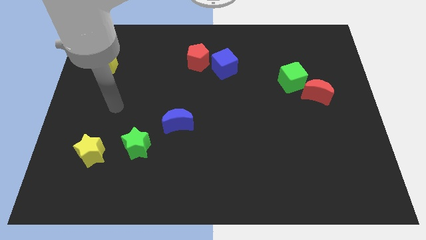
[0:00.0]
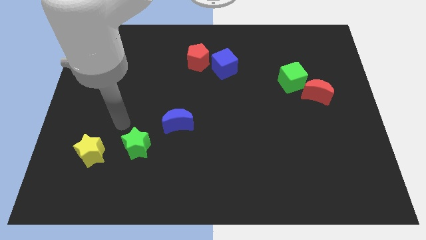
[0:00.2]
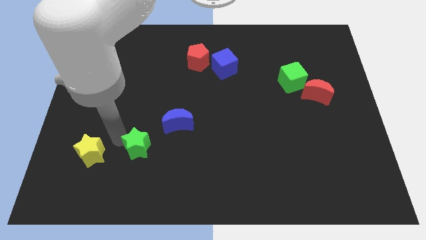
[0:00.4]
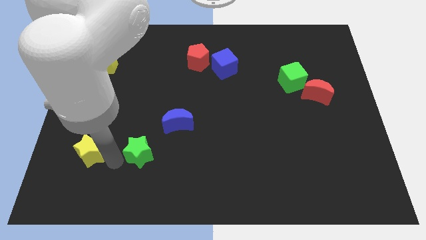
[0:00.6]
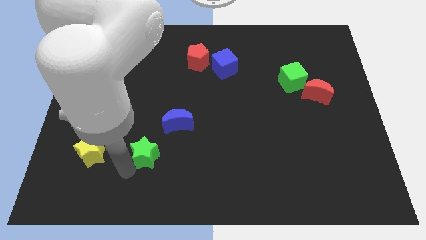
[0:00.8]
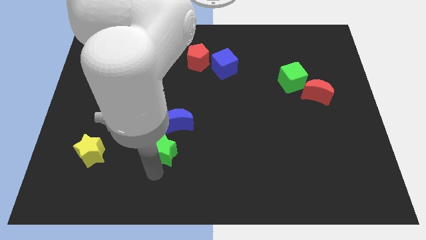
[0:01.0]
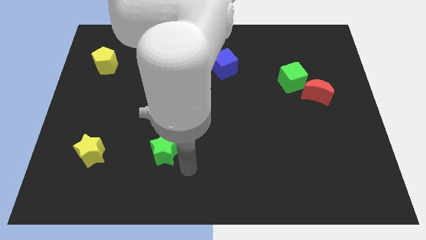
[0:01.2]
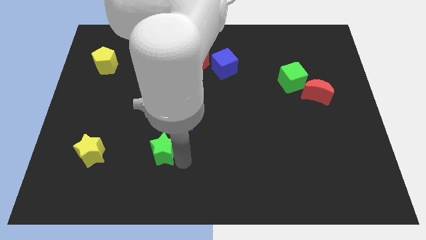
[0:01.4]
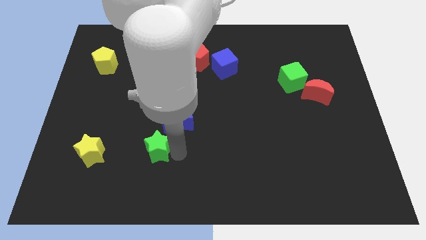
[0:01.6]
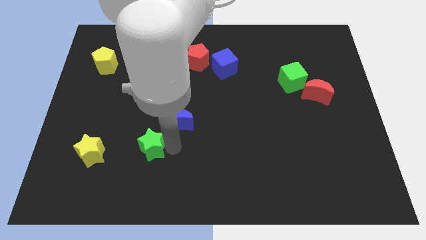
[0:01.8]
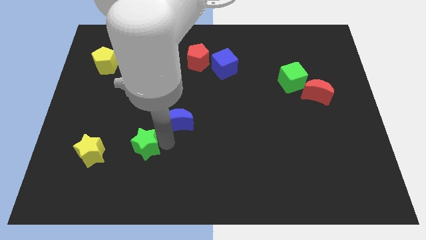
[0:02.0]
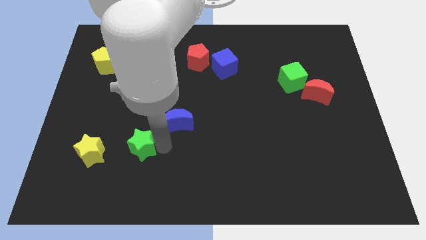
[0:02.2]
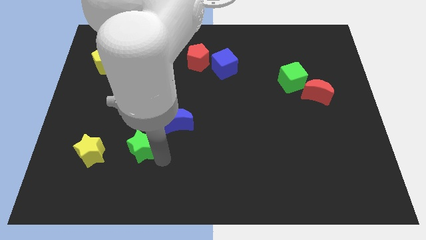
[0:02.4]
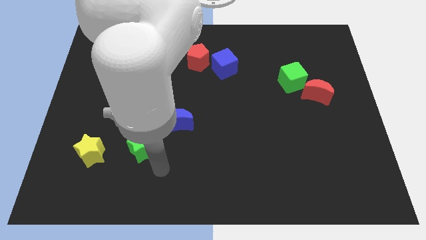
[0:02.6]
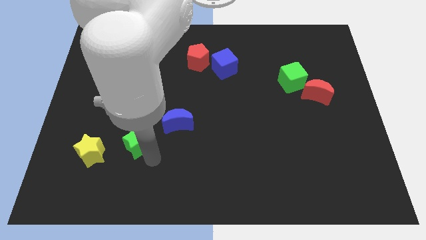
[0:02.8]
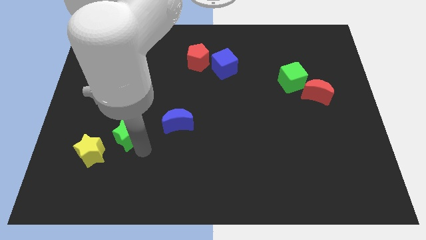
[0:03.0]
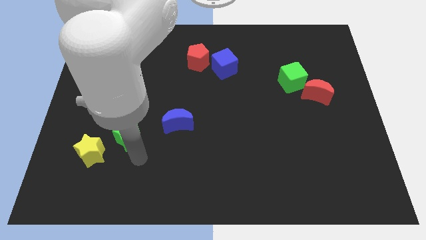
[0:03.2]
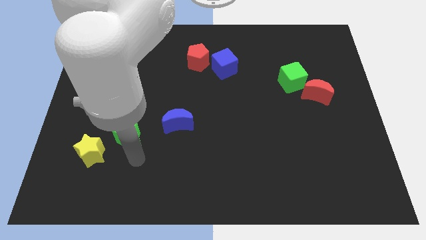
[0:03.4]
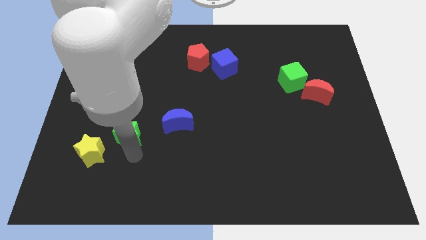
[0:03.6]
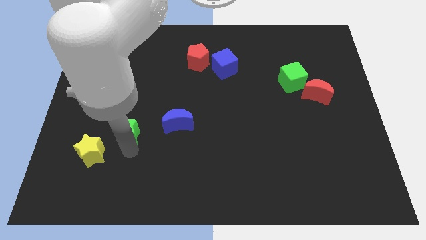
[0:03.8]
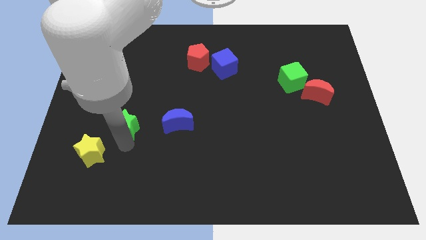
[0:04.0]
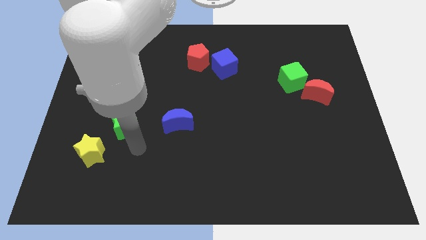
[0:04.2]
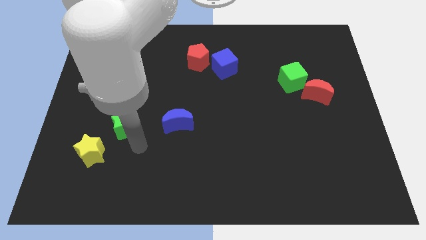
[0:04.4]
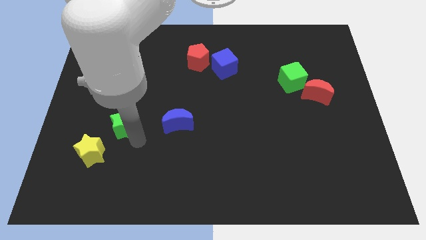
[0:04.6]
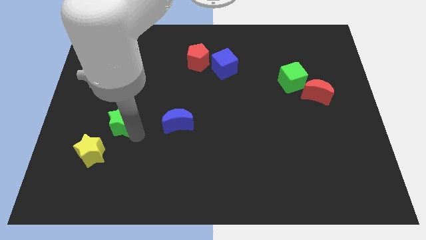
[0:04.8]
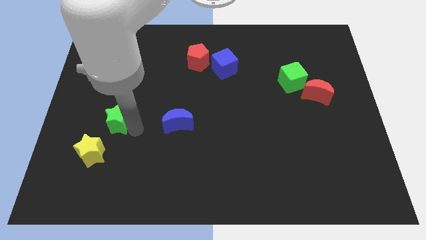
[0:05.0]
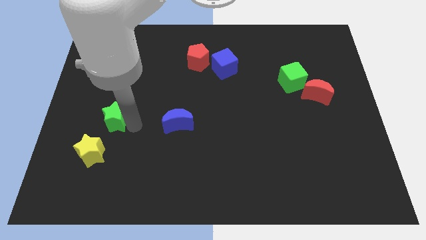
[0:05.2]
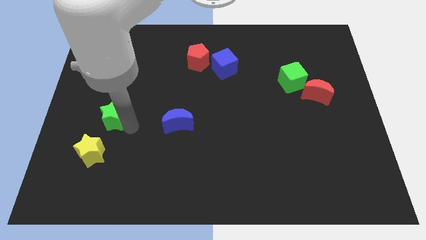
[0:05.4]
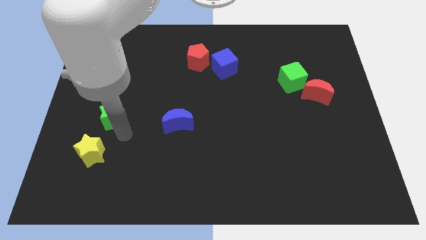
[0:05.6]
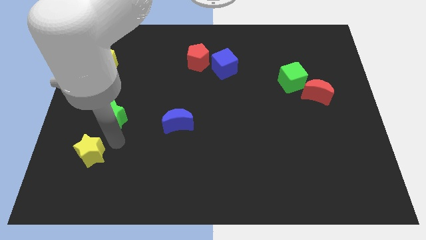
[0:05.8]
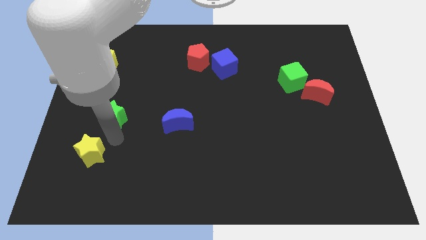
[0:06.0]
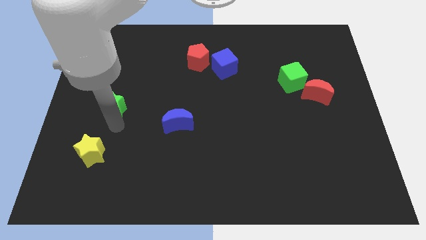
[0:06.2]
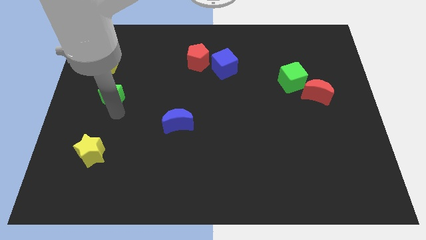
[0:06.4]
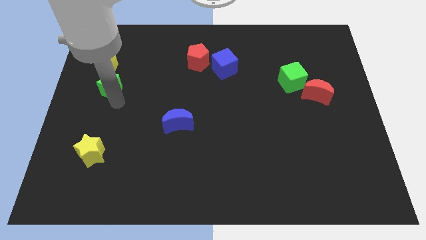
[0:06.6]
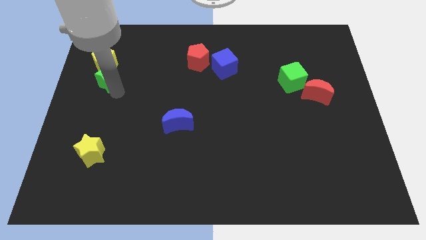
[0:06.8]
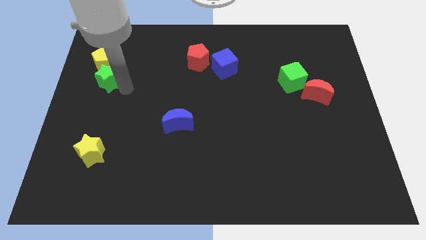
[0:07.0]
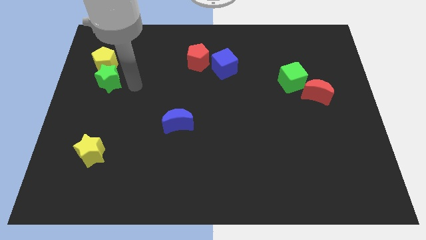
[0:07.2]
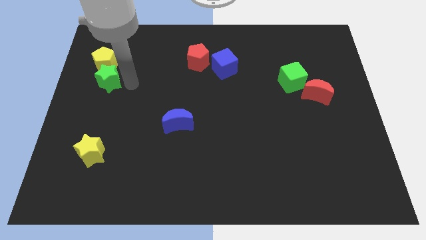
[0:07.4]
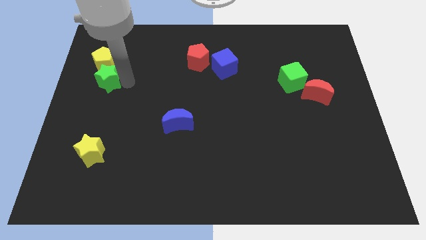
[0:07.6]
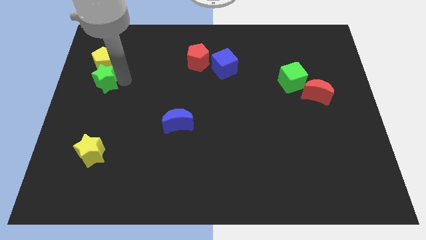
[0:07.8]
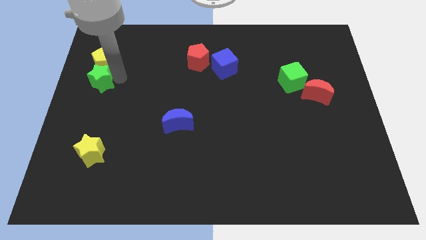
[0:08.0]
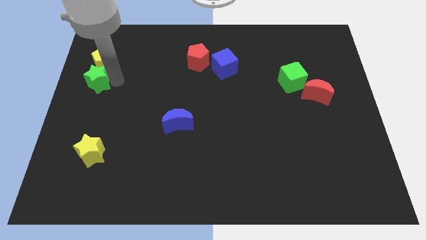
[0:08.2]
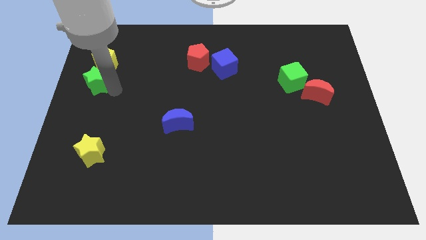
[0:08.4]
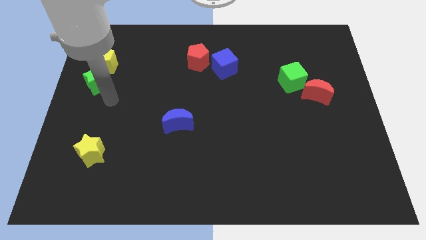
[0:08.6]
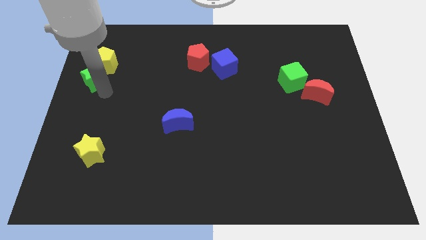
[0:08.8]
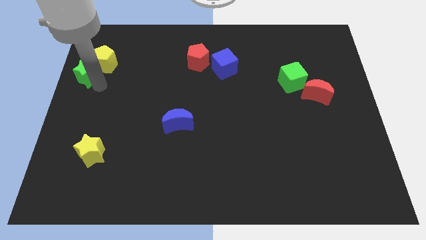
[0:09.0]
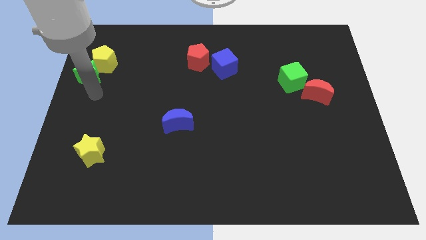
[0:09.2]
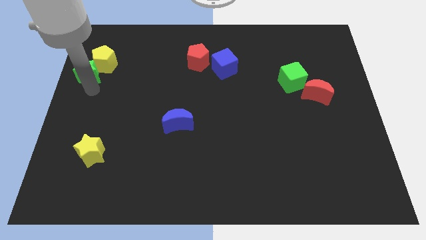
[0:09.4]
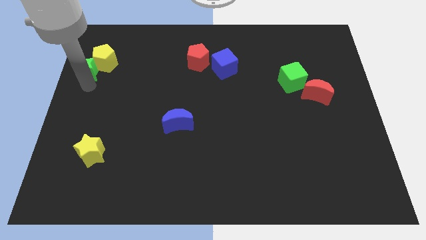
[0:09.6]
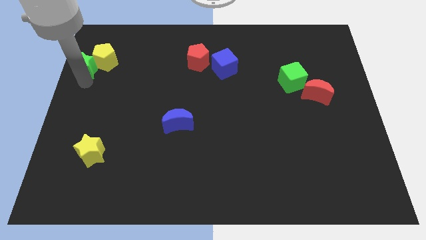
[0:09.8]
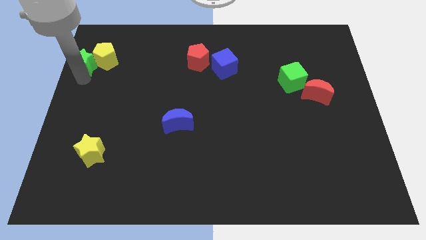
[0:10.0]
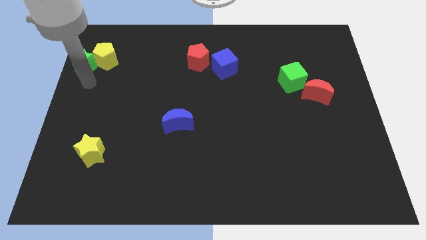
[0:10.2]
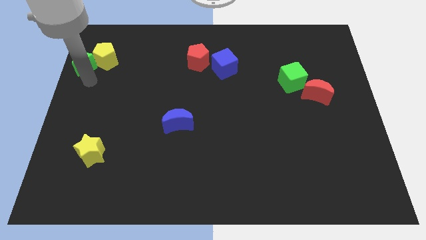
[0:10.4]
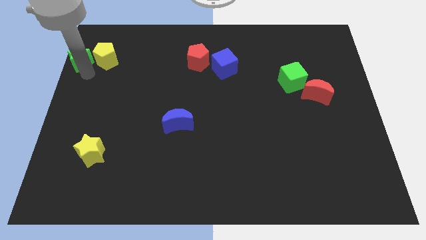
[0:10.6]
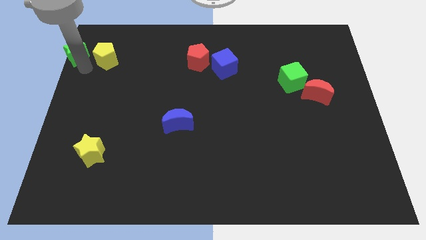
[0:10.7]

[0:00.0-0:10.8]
push the green star to the upper left corner

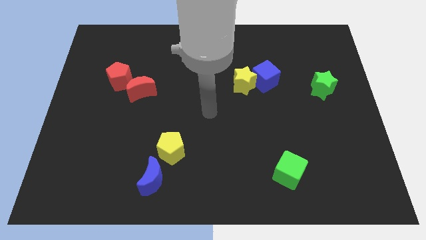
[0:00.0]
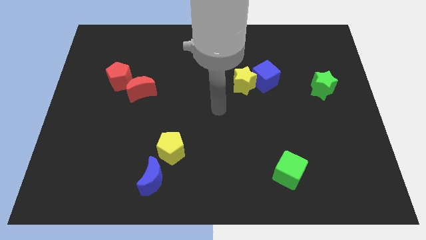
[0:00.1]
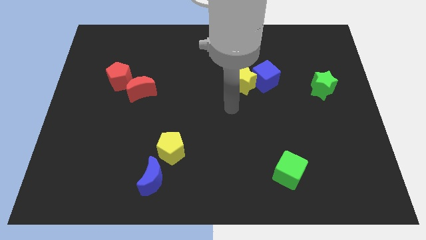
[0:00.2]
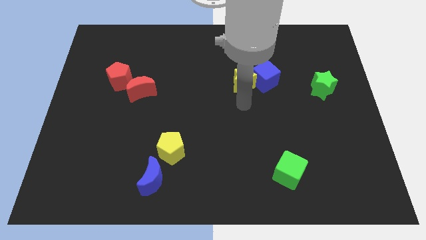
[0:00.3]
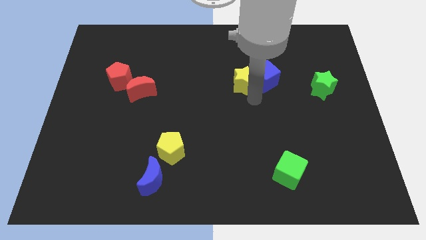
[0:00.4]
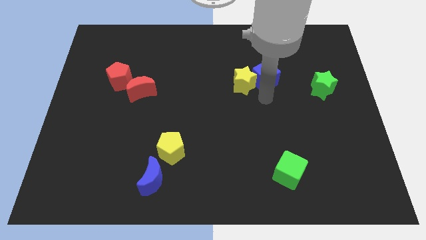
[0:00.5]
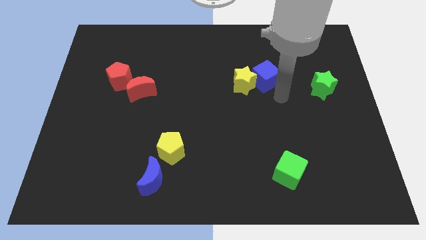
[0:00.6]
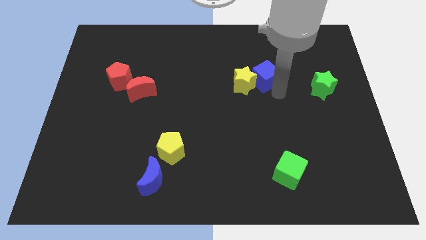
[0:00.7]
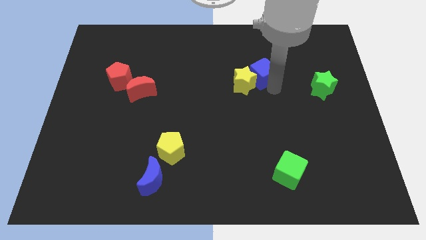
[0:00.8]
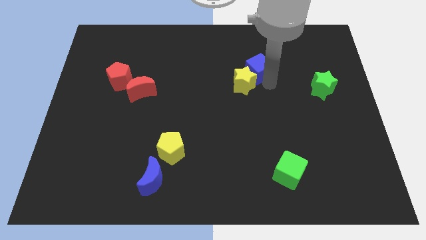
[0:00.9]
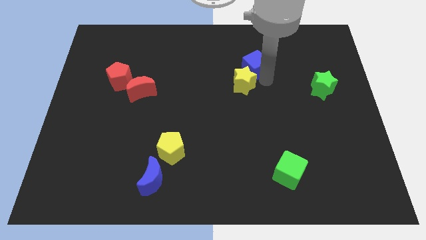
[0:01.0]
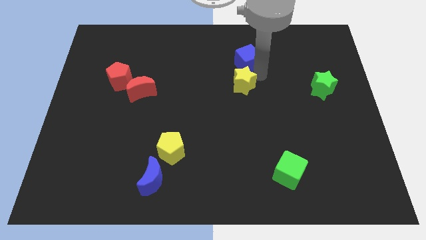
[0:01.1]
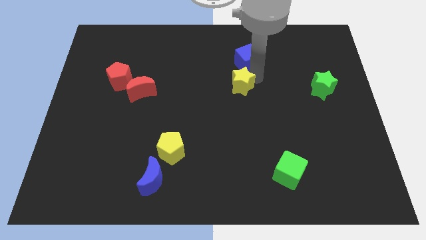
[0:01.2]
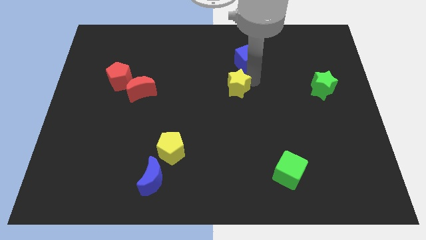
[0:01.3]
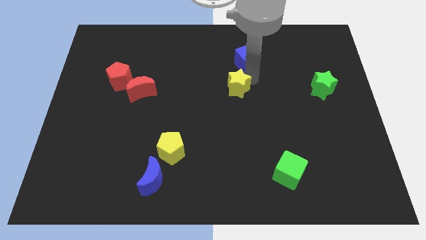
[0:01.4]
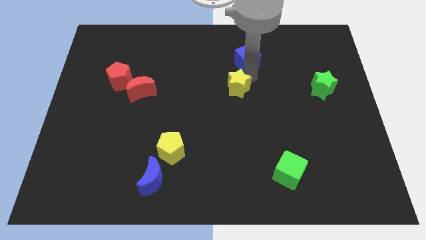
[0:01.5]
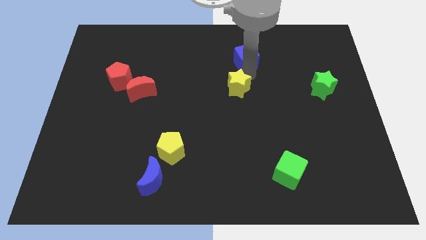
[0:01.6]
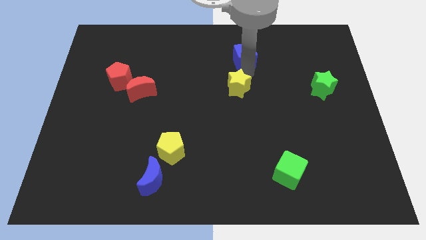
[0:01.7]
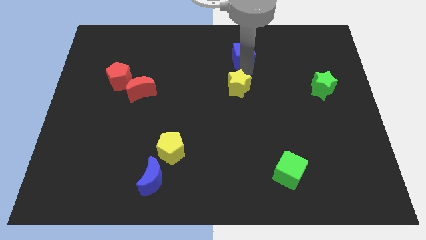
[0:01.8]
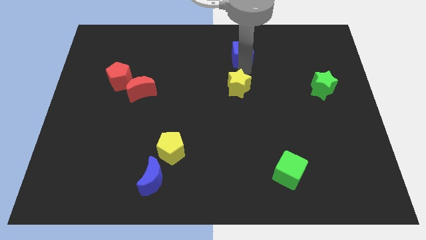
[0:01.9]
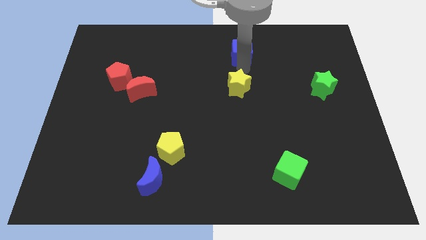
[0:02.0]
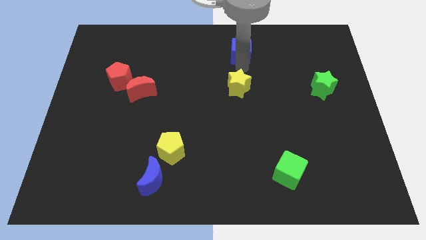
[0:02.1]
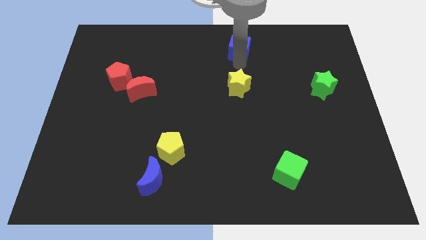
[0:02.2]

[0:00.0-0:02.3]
move the blue cube to the towards your base
